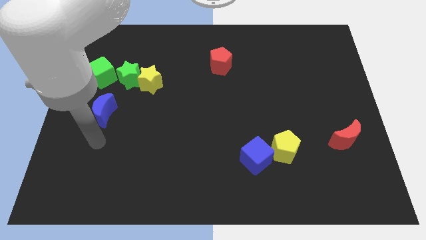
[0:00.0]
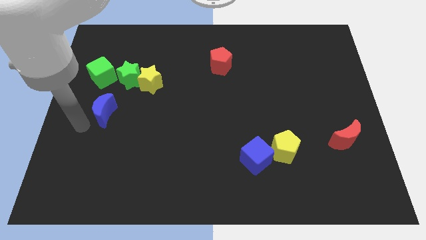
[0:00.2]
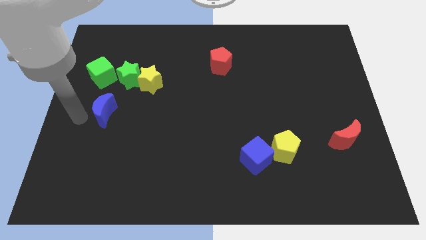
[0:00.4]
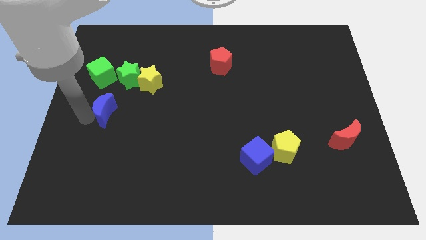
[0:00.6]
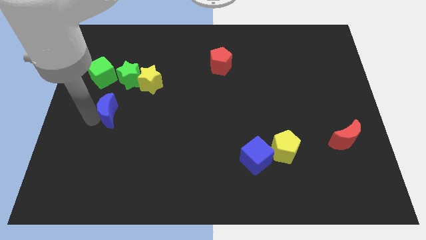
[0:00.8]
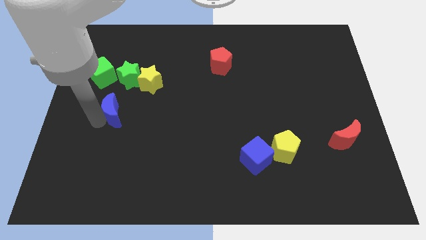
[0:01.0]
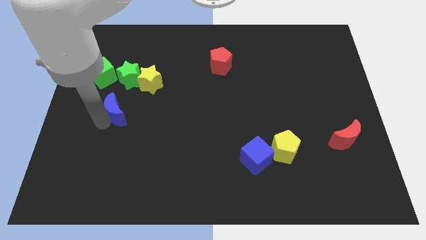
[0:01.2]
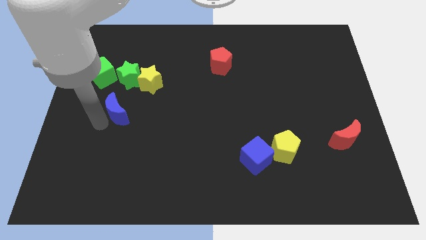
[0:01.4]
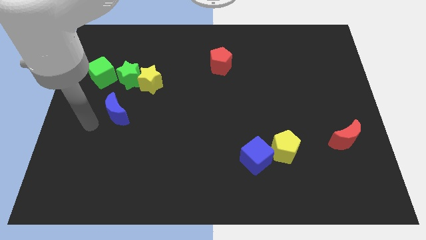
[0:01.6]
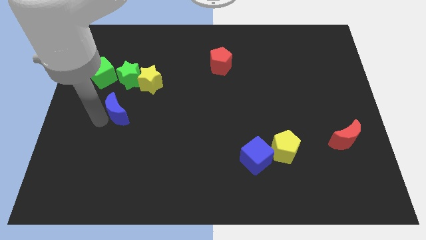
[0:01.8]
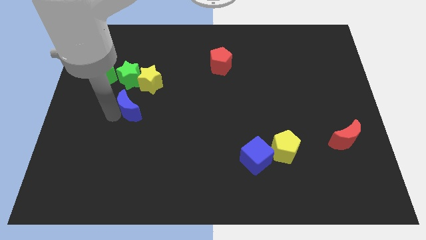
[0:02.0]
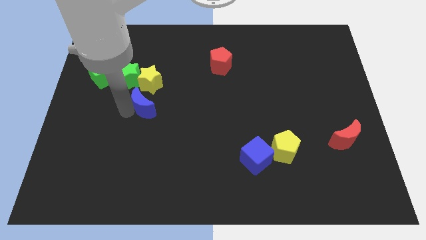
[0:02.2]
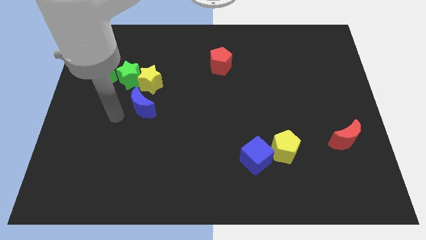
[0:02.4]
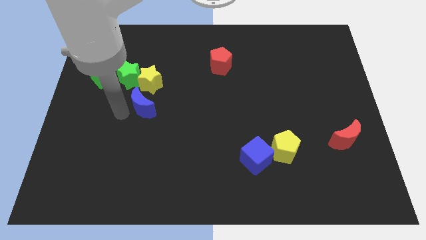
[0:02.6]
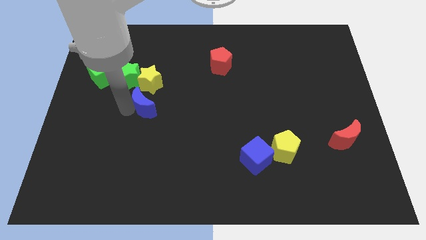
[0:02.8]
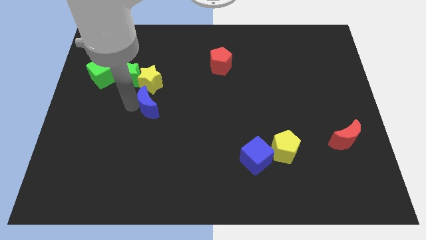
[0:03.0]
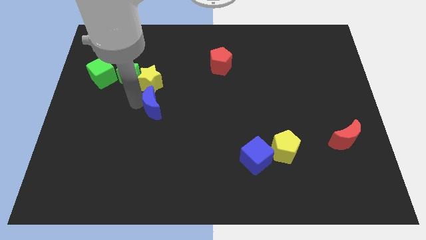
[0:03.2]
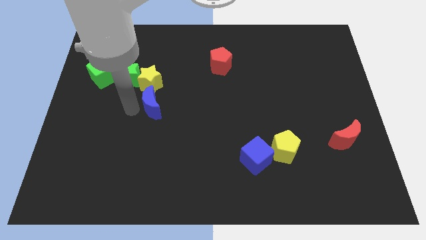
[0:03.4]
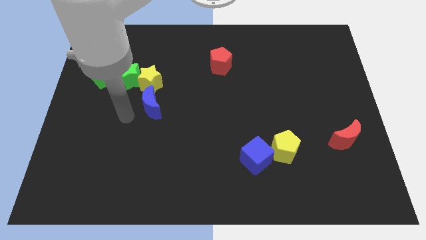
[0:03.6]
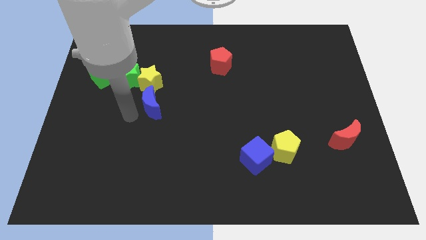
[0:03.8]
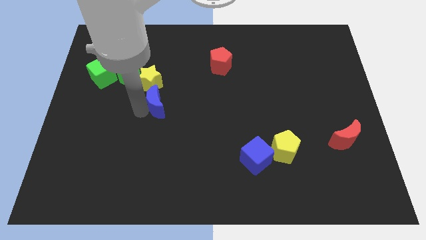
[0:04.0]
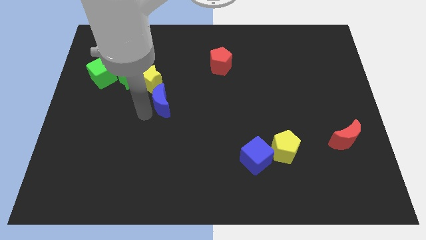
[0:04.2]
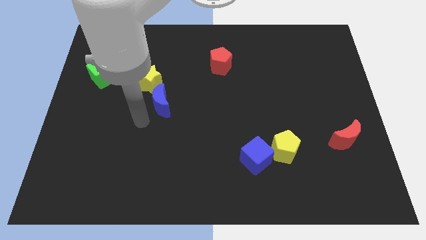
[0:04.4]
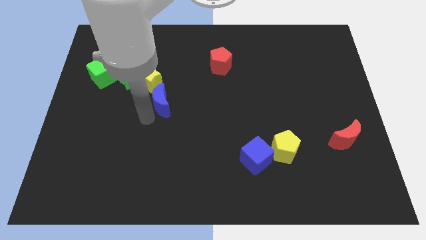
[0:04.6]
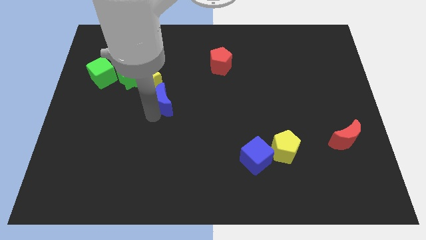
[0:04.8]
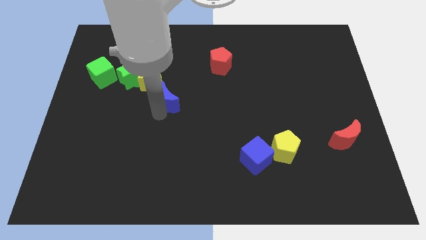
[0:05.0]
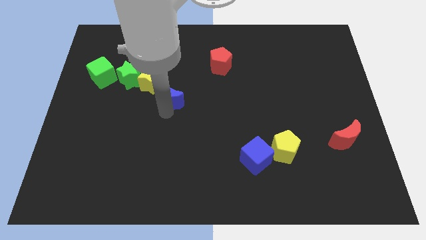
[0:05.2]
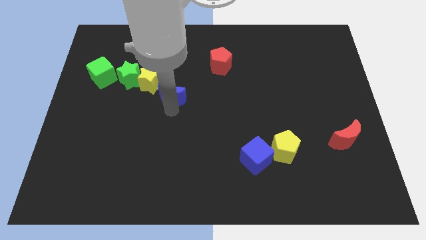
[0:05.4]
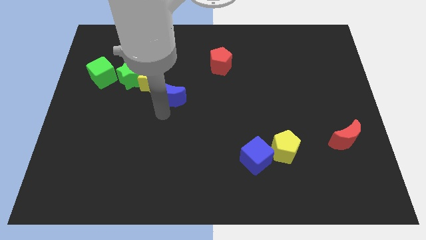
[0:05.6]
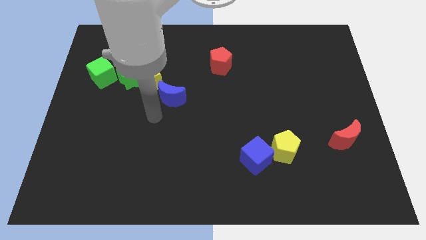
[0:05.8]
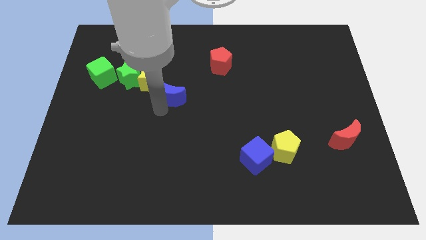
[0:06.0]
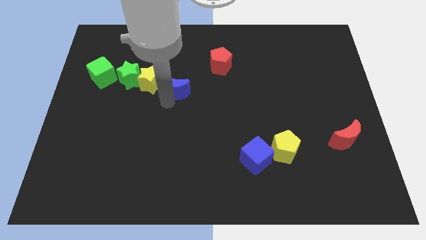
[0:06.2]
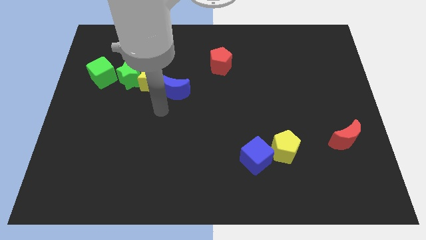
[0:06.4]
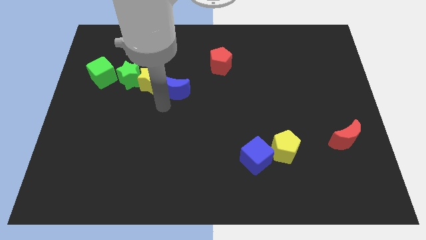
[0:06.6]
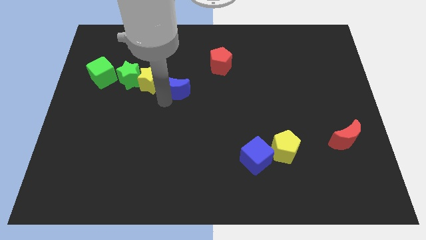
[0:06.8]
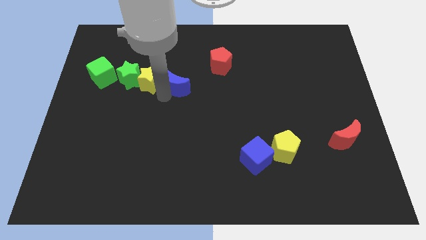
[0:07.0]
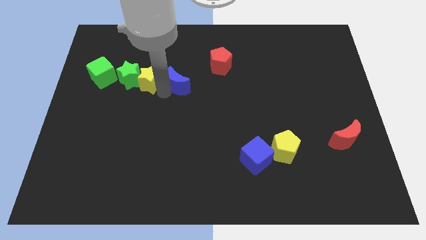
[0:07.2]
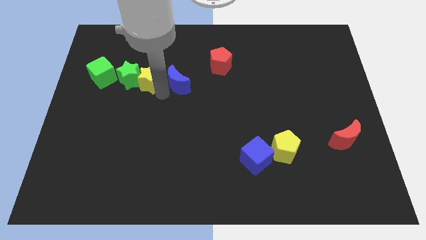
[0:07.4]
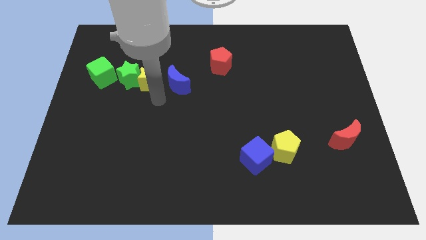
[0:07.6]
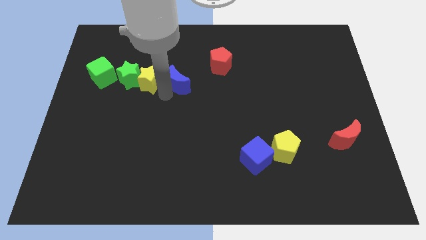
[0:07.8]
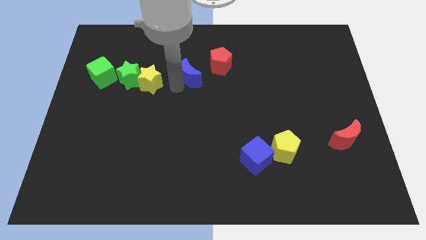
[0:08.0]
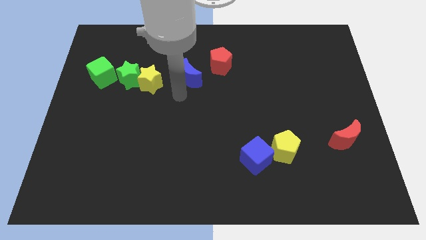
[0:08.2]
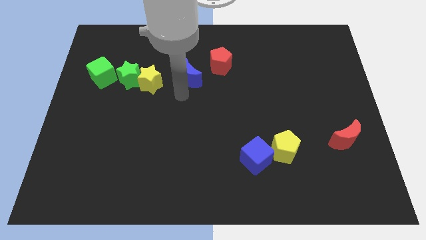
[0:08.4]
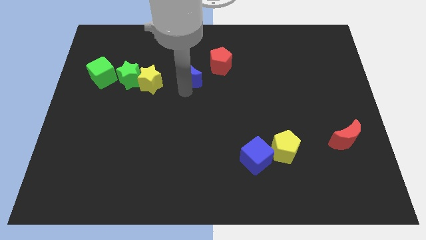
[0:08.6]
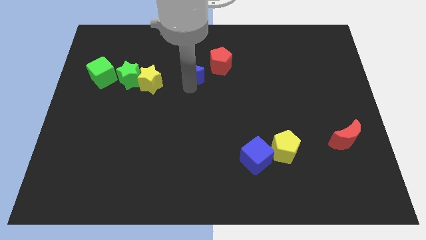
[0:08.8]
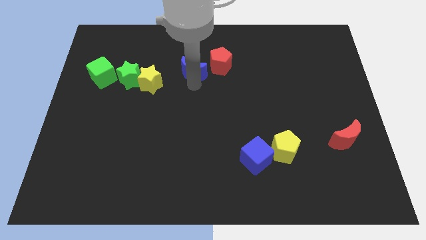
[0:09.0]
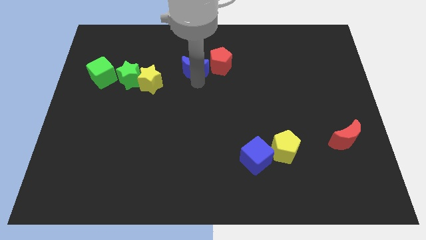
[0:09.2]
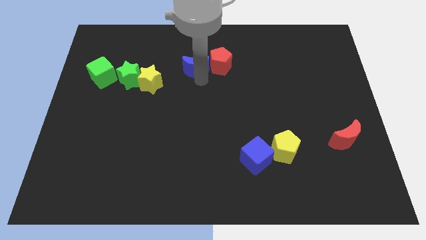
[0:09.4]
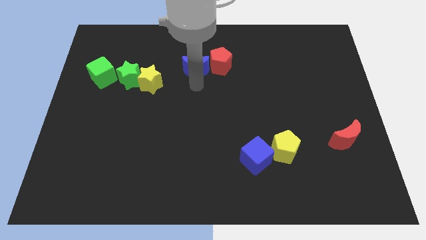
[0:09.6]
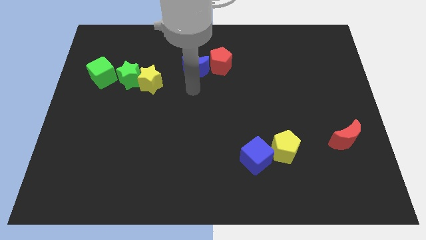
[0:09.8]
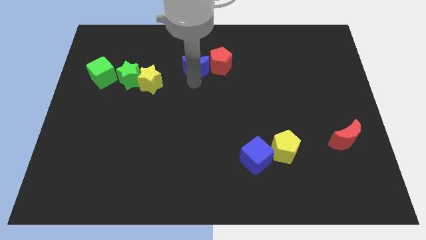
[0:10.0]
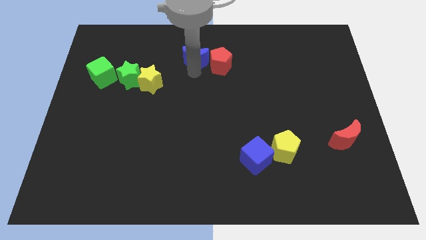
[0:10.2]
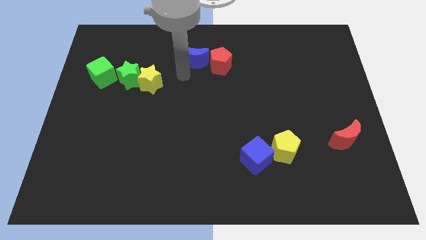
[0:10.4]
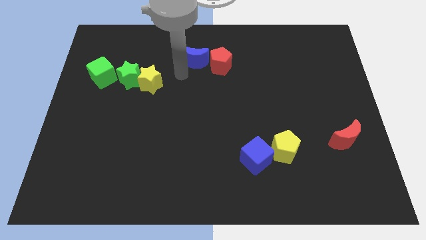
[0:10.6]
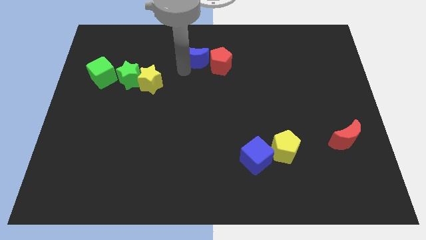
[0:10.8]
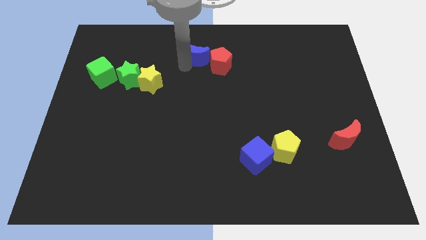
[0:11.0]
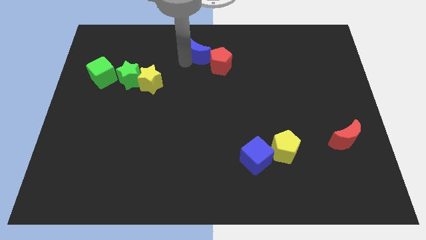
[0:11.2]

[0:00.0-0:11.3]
push the blue moon to the top

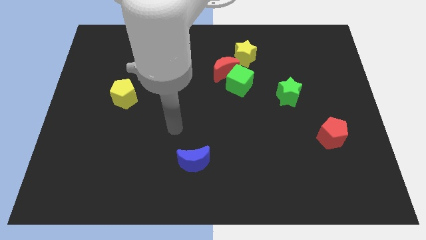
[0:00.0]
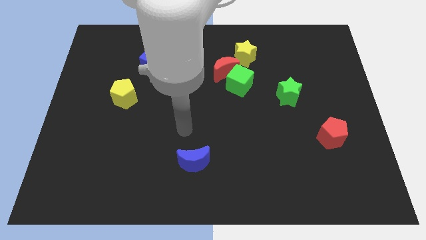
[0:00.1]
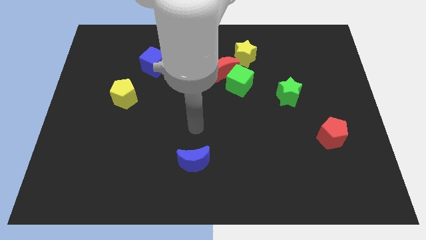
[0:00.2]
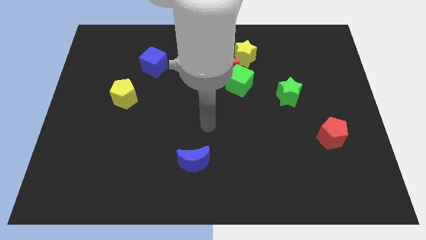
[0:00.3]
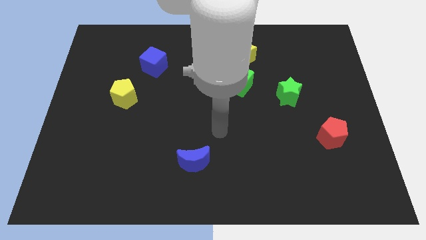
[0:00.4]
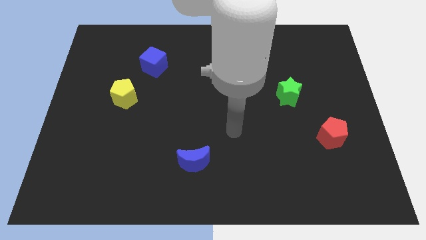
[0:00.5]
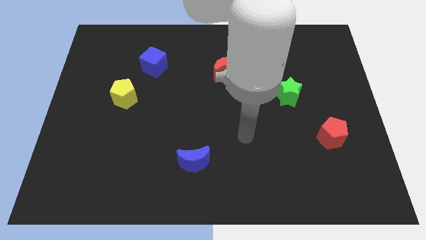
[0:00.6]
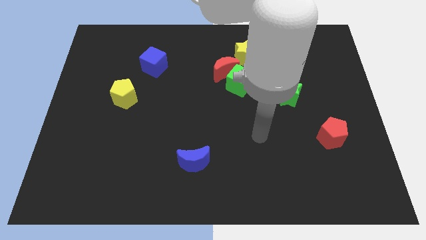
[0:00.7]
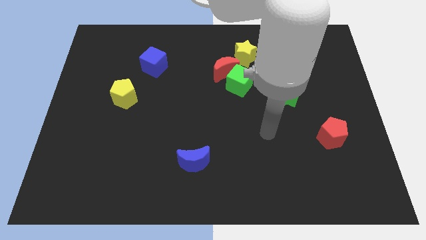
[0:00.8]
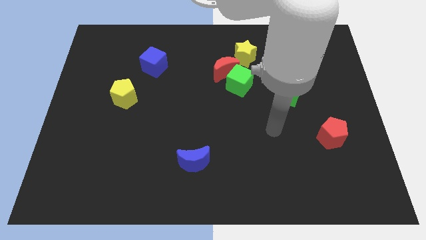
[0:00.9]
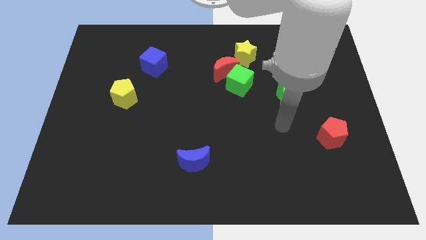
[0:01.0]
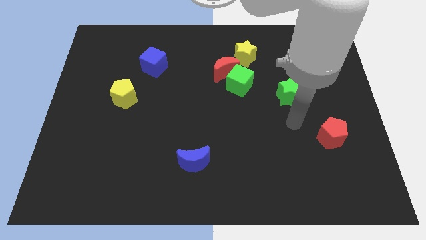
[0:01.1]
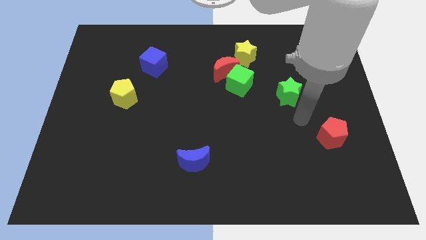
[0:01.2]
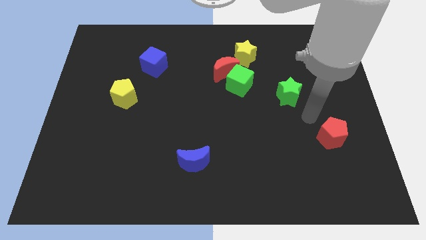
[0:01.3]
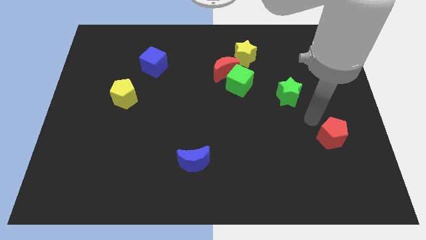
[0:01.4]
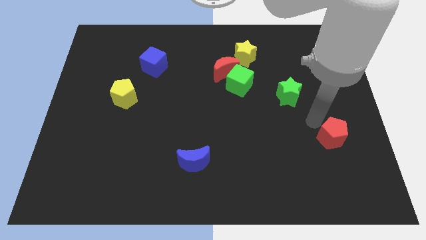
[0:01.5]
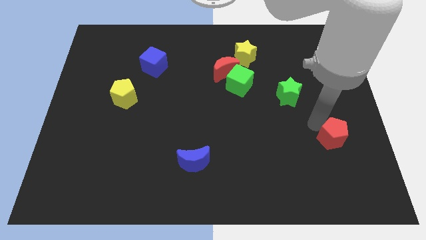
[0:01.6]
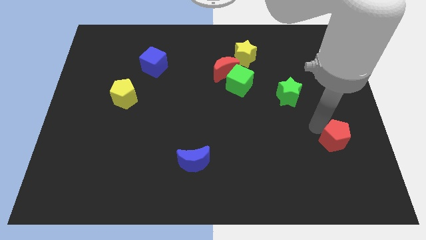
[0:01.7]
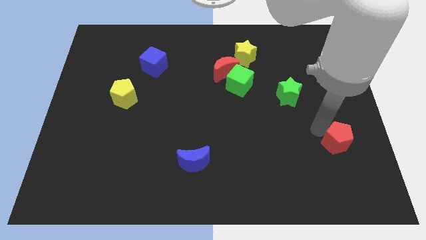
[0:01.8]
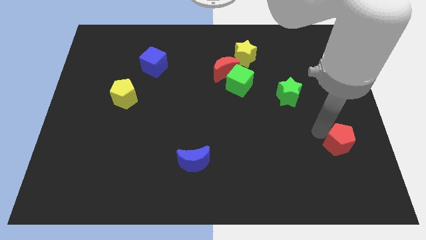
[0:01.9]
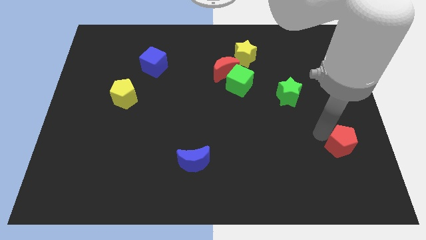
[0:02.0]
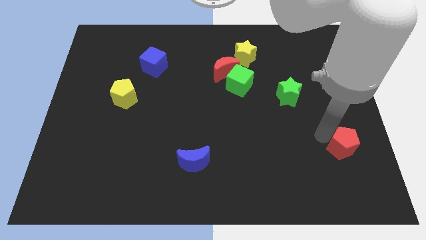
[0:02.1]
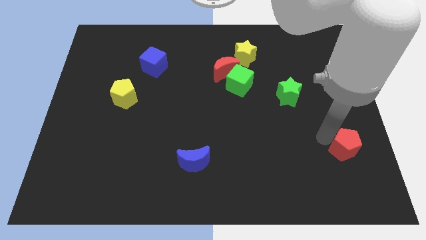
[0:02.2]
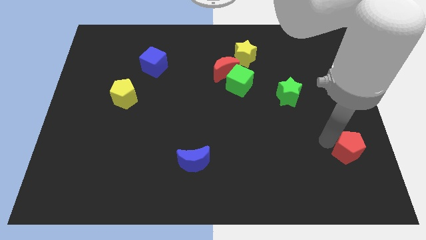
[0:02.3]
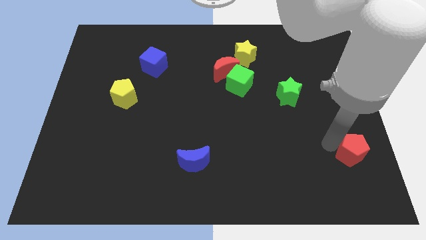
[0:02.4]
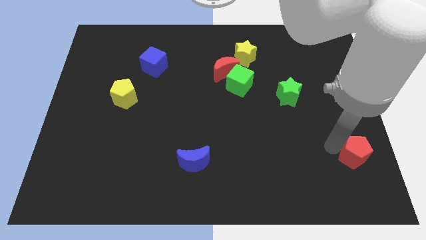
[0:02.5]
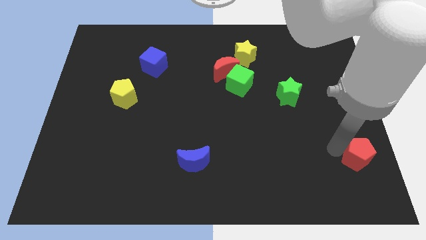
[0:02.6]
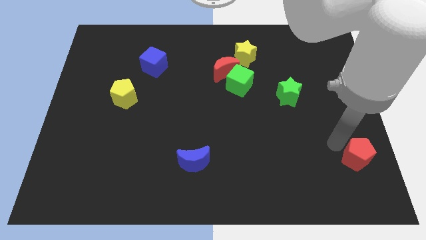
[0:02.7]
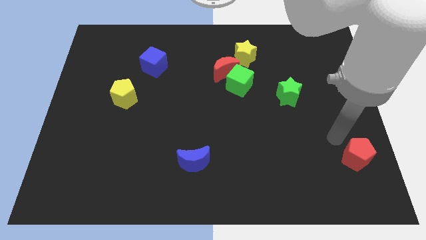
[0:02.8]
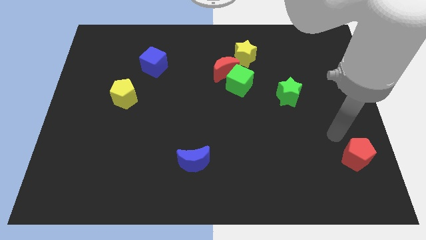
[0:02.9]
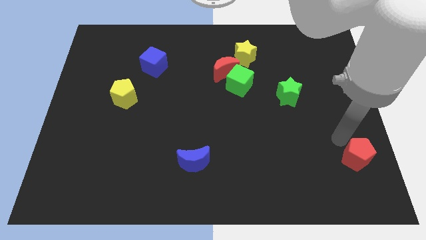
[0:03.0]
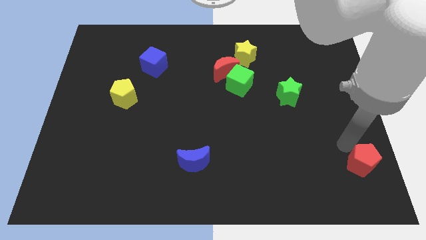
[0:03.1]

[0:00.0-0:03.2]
move the red pentagon to the bottom right
